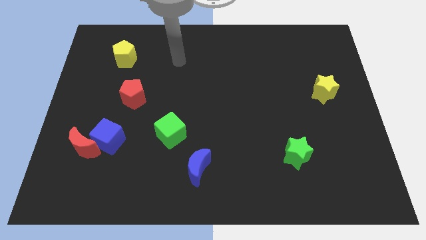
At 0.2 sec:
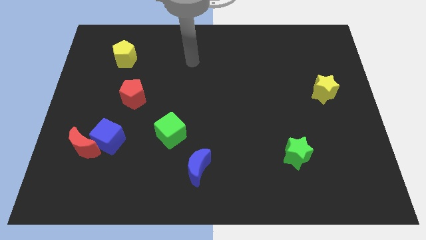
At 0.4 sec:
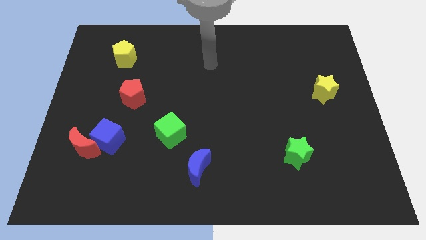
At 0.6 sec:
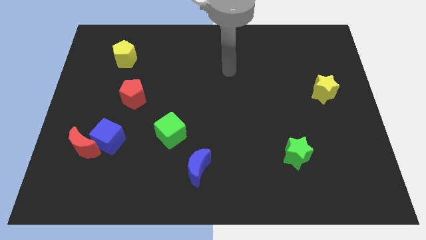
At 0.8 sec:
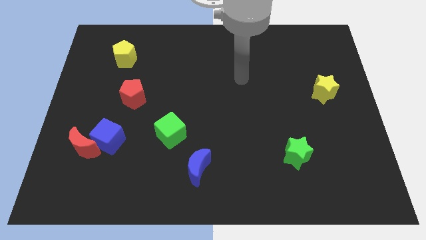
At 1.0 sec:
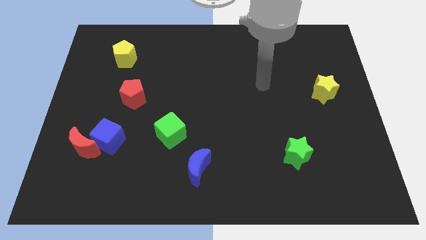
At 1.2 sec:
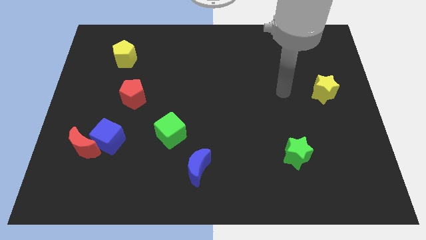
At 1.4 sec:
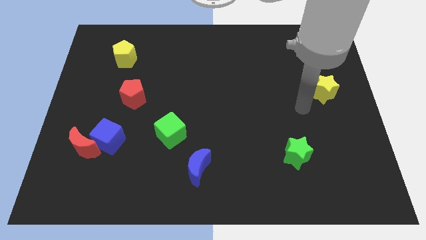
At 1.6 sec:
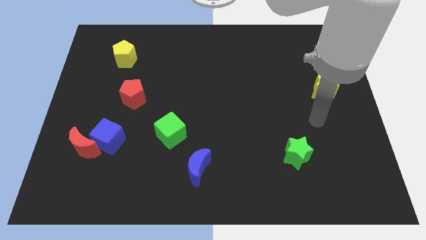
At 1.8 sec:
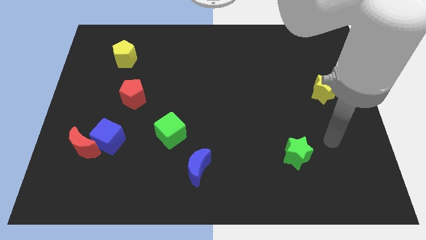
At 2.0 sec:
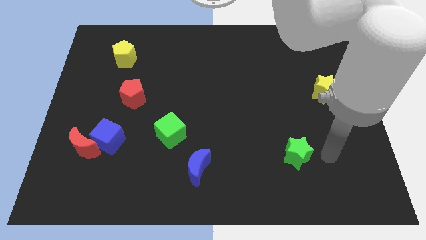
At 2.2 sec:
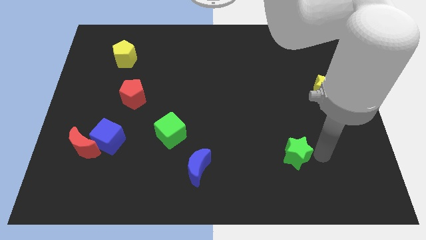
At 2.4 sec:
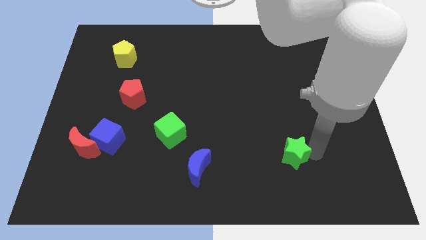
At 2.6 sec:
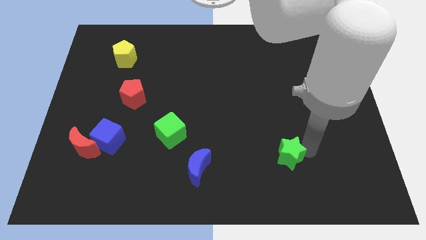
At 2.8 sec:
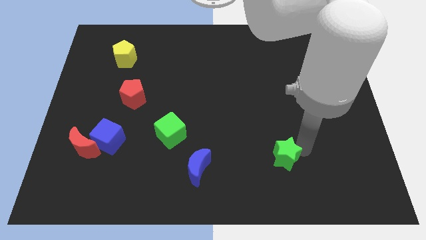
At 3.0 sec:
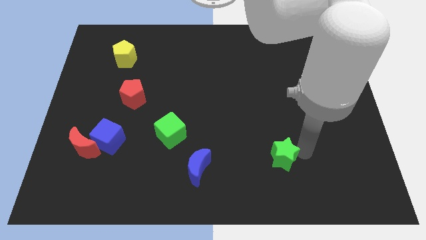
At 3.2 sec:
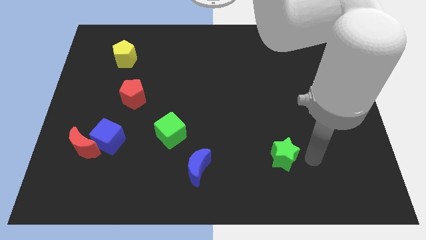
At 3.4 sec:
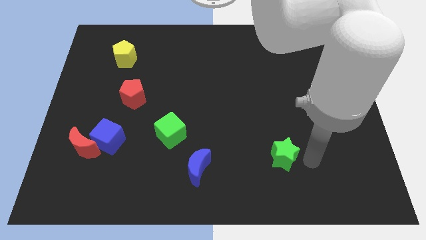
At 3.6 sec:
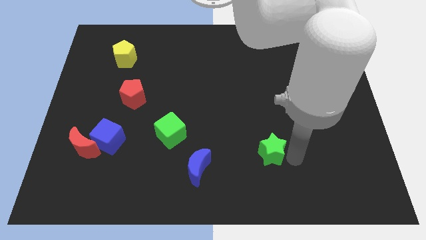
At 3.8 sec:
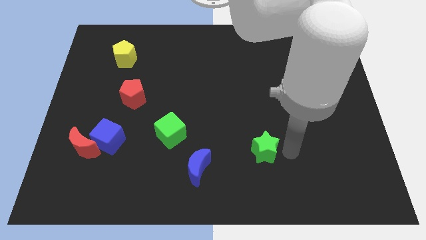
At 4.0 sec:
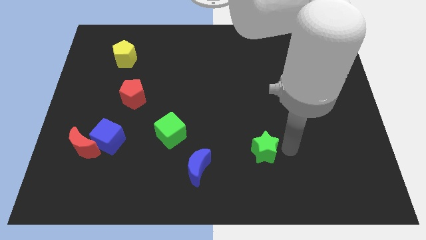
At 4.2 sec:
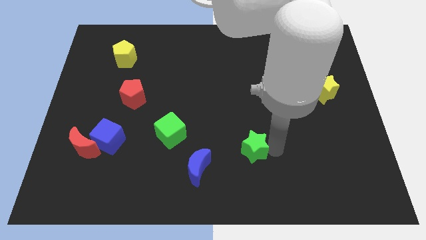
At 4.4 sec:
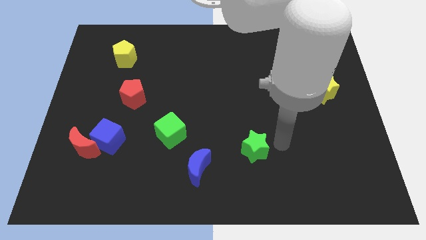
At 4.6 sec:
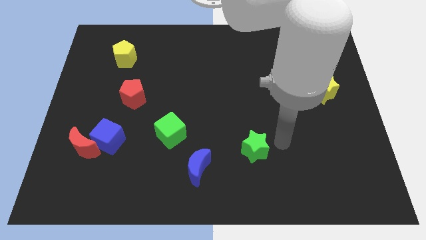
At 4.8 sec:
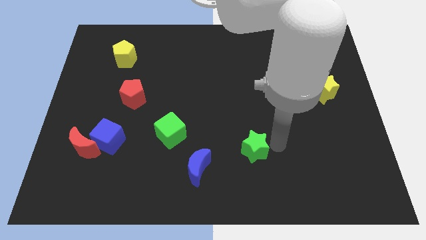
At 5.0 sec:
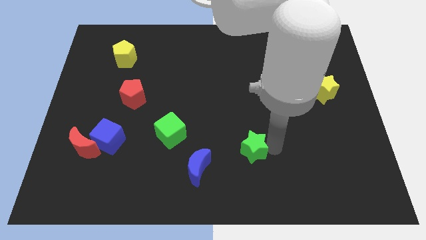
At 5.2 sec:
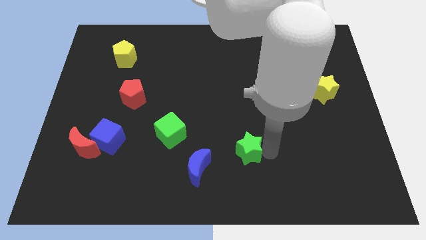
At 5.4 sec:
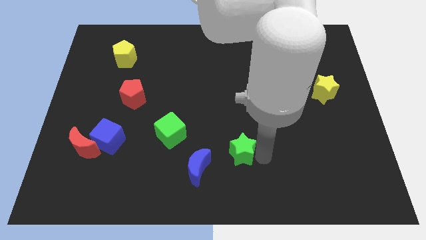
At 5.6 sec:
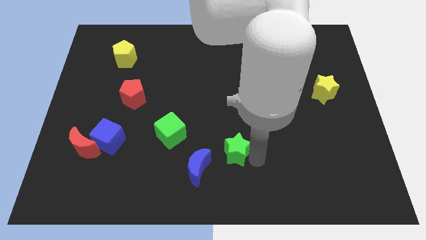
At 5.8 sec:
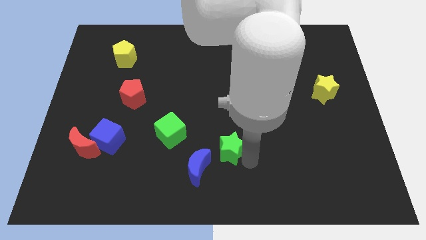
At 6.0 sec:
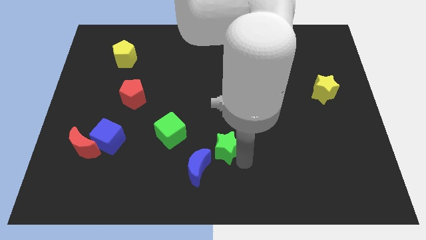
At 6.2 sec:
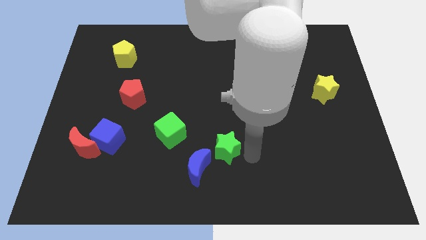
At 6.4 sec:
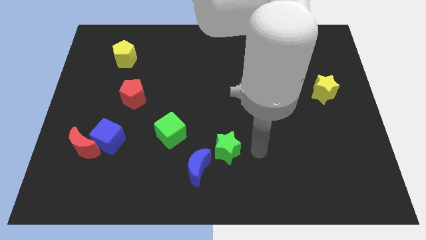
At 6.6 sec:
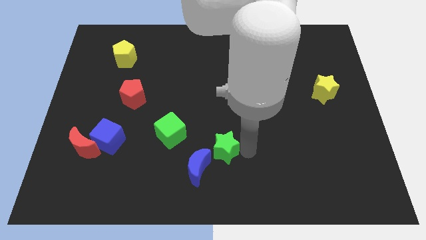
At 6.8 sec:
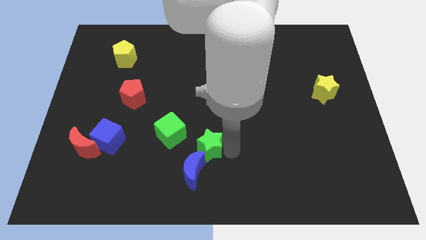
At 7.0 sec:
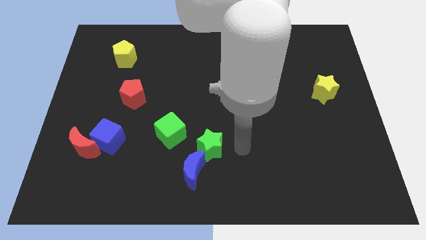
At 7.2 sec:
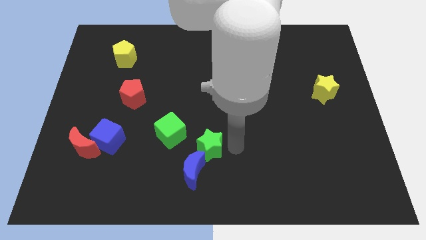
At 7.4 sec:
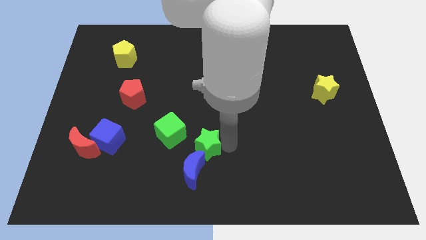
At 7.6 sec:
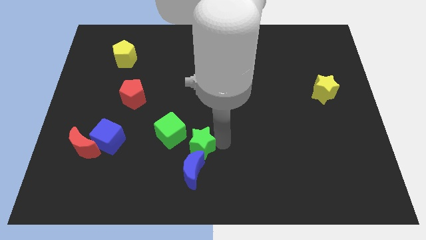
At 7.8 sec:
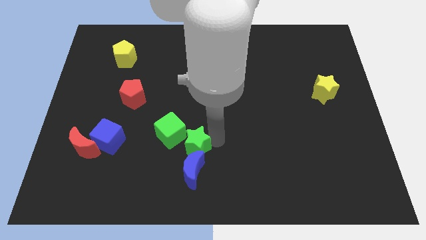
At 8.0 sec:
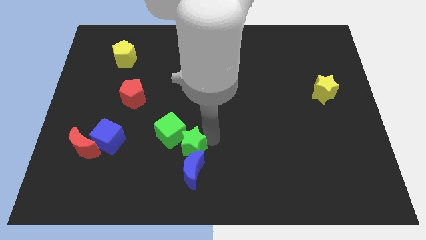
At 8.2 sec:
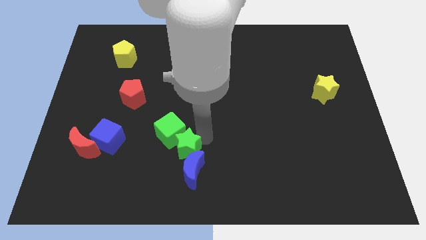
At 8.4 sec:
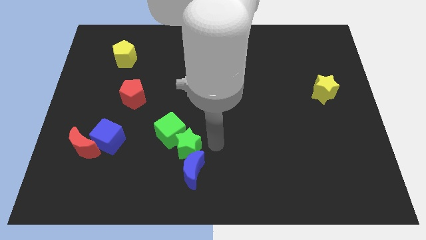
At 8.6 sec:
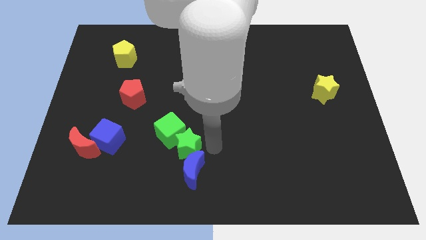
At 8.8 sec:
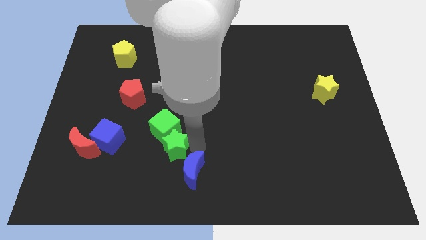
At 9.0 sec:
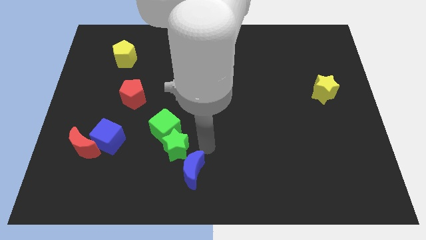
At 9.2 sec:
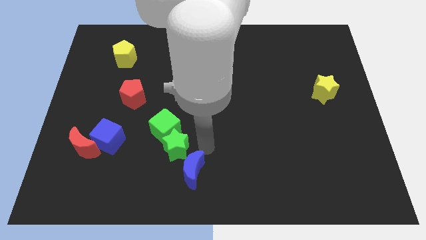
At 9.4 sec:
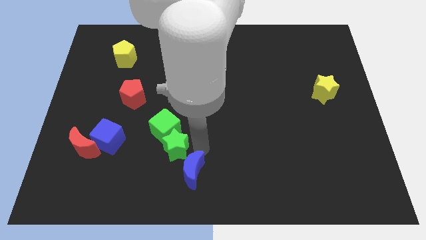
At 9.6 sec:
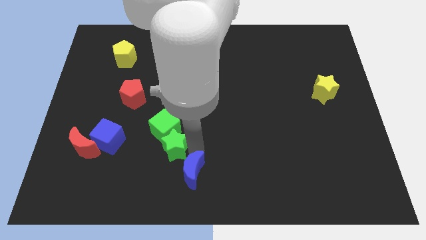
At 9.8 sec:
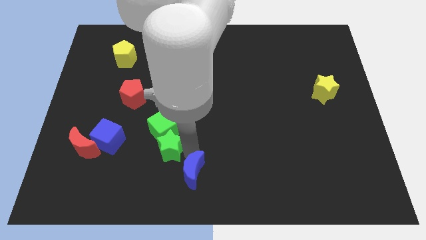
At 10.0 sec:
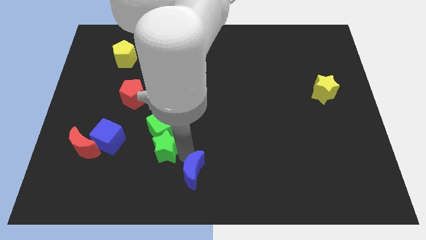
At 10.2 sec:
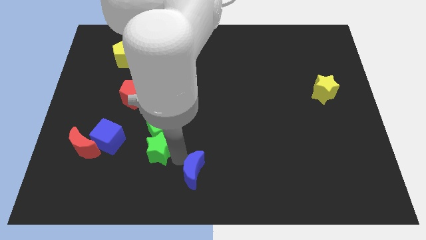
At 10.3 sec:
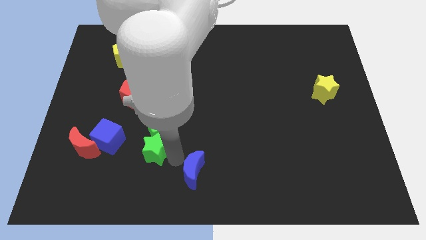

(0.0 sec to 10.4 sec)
move the green star to the right side of the red moon

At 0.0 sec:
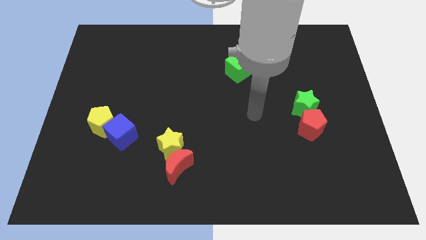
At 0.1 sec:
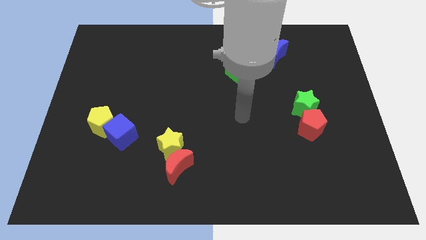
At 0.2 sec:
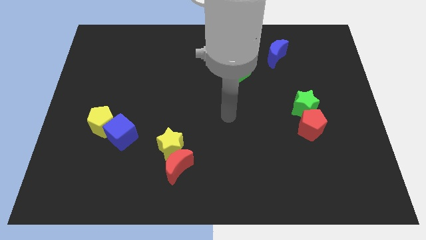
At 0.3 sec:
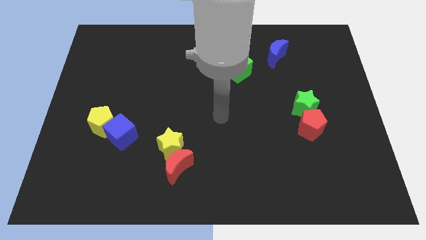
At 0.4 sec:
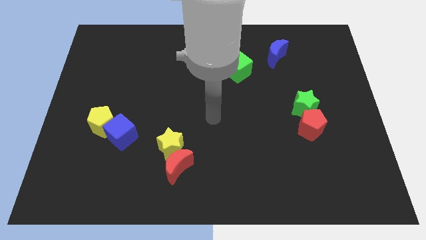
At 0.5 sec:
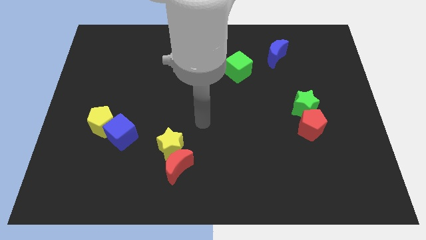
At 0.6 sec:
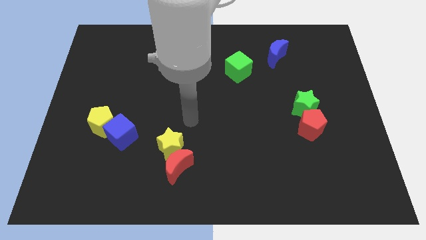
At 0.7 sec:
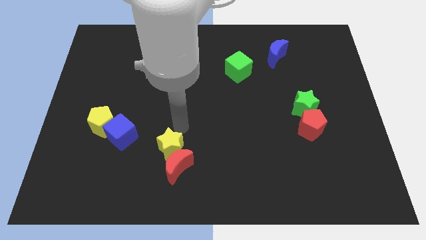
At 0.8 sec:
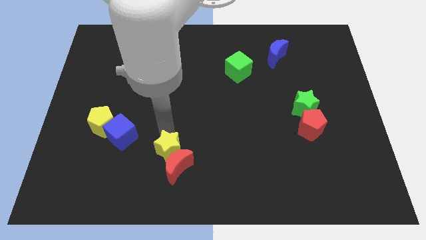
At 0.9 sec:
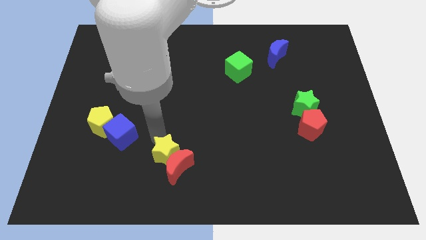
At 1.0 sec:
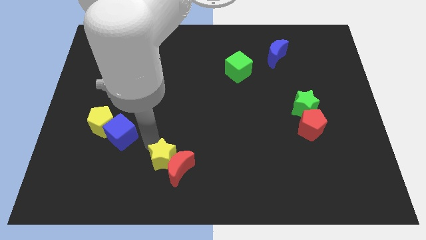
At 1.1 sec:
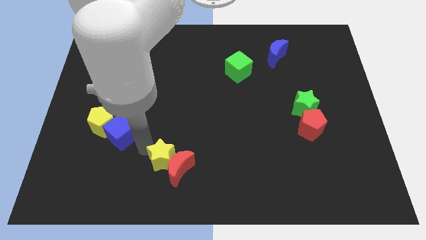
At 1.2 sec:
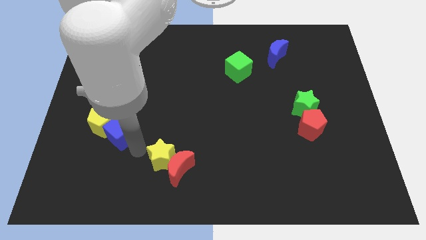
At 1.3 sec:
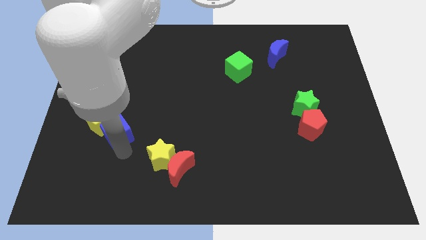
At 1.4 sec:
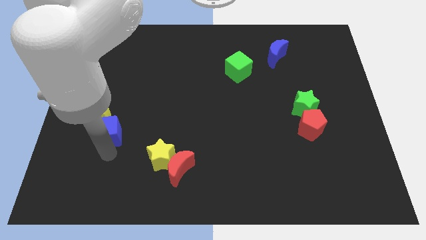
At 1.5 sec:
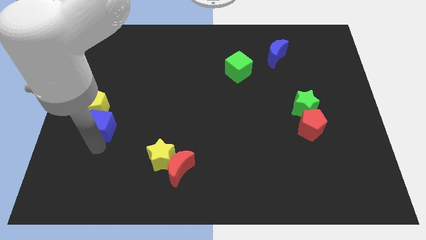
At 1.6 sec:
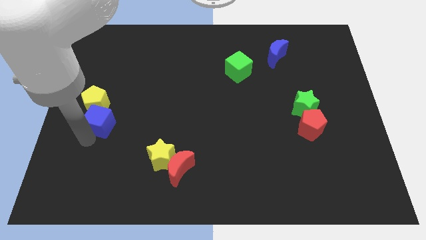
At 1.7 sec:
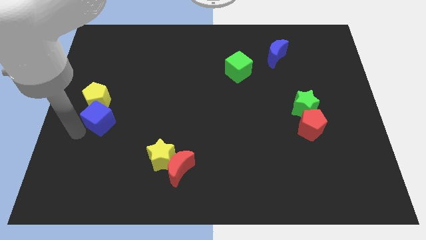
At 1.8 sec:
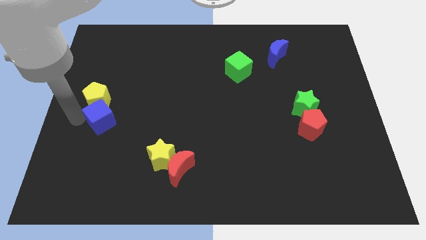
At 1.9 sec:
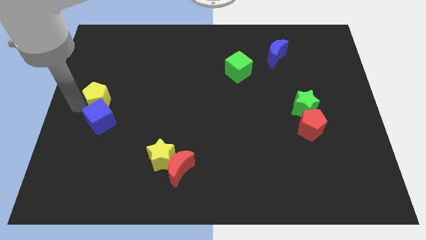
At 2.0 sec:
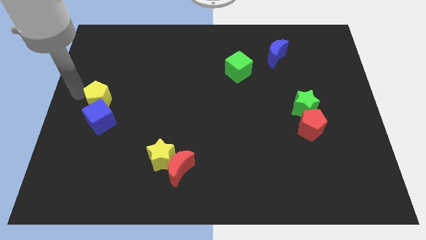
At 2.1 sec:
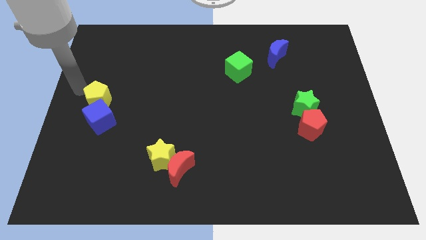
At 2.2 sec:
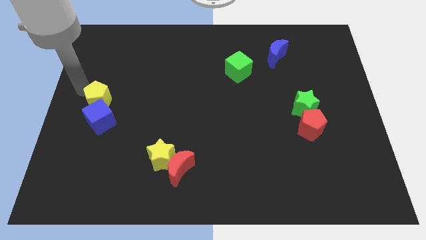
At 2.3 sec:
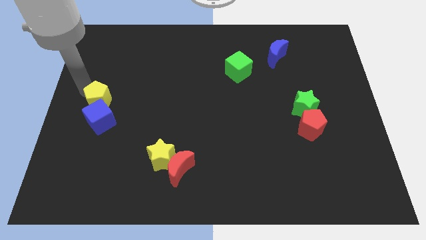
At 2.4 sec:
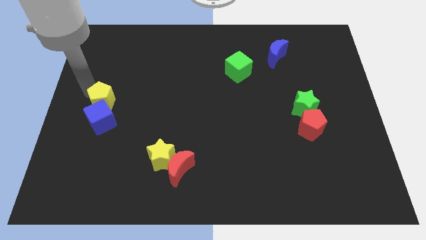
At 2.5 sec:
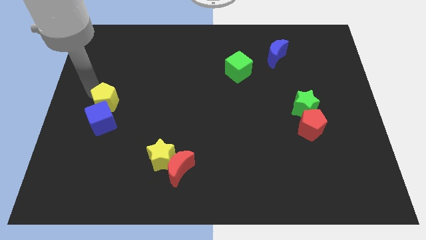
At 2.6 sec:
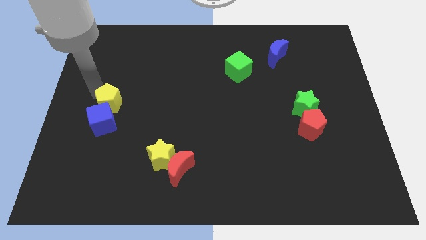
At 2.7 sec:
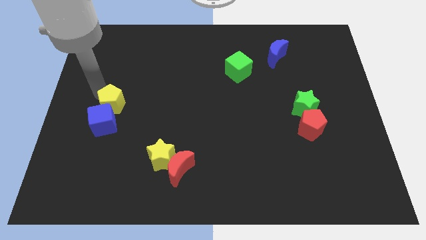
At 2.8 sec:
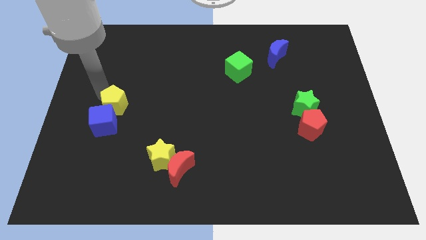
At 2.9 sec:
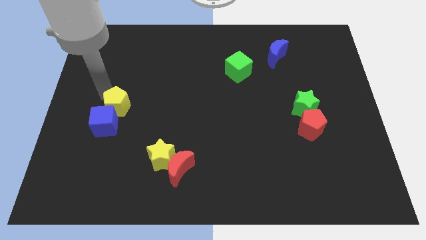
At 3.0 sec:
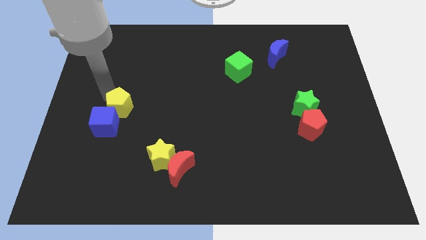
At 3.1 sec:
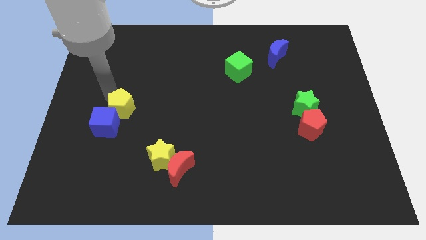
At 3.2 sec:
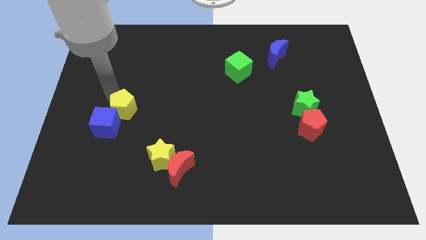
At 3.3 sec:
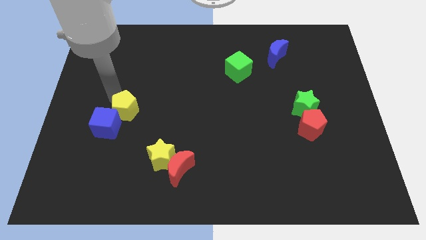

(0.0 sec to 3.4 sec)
move the yellow pentagon right of the blue cube
